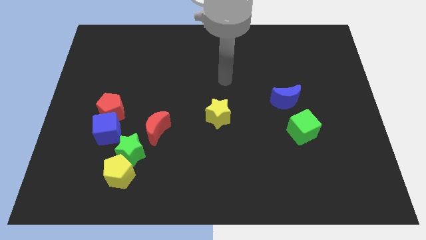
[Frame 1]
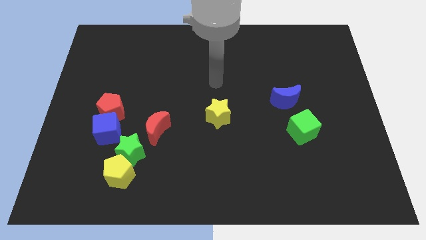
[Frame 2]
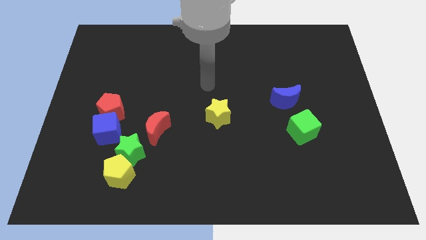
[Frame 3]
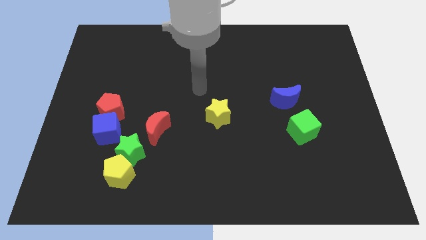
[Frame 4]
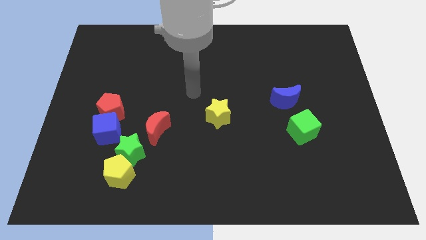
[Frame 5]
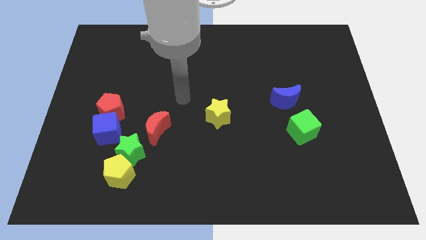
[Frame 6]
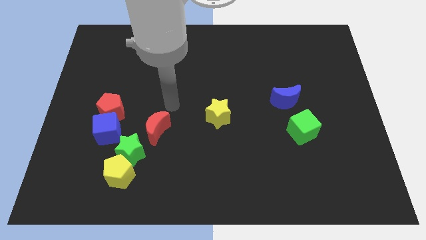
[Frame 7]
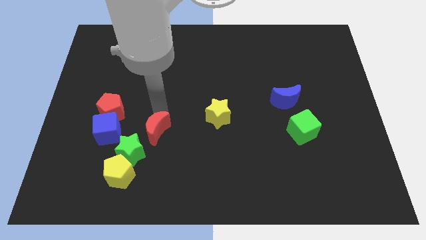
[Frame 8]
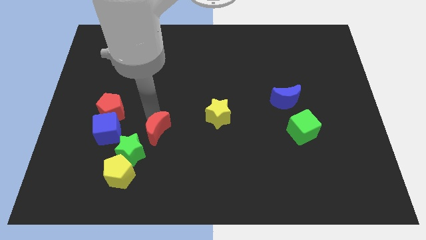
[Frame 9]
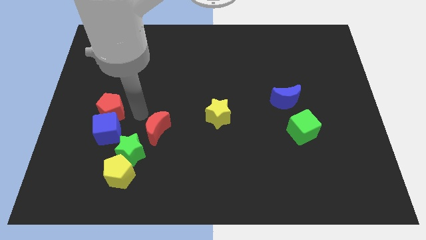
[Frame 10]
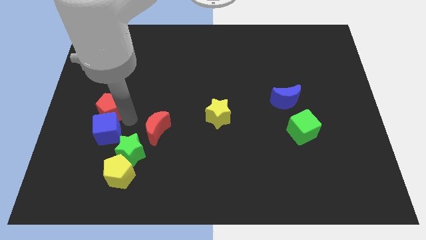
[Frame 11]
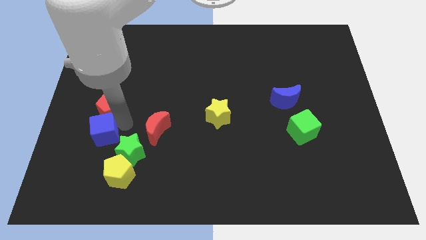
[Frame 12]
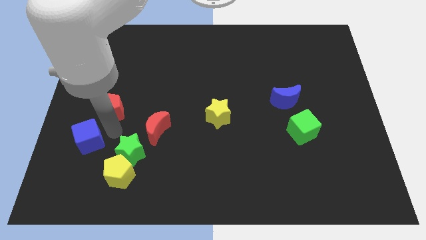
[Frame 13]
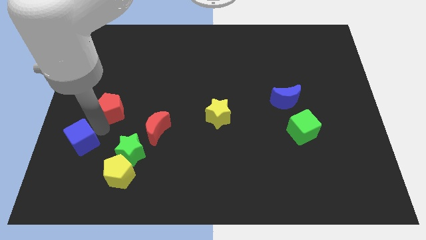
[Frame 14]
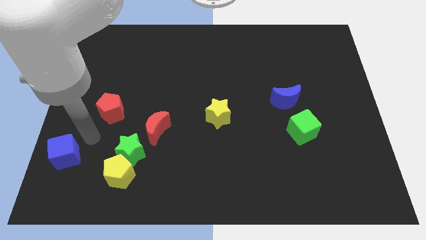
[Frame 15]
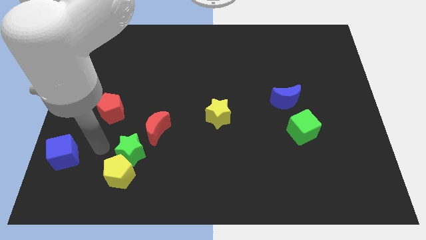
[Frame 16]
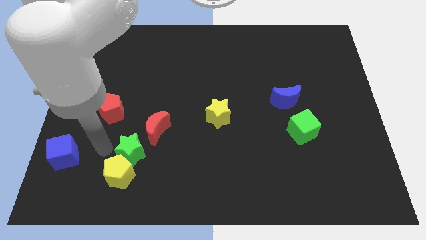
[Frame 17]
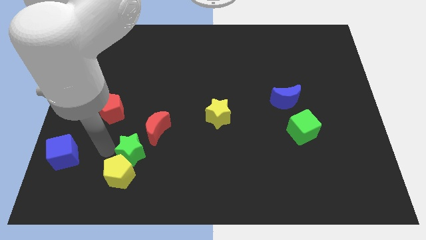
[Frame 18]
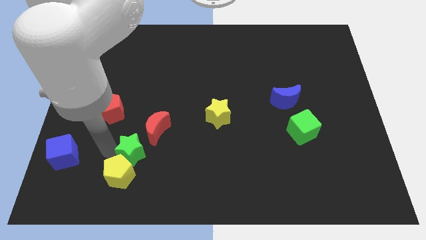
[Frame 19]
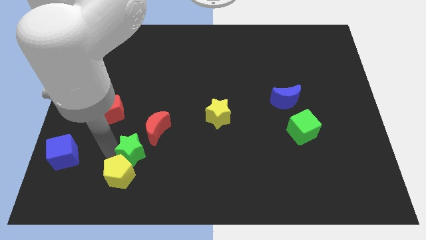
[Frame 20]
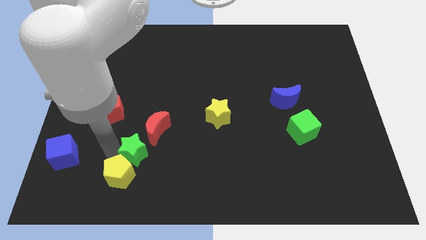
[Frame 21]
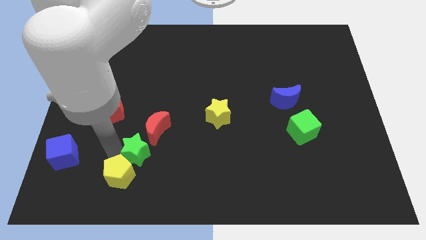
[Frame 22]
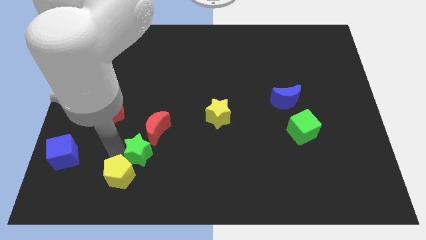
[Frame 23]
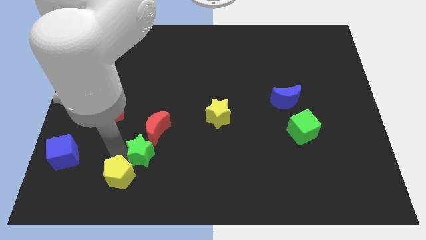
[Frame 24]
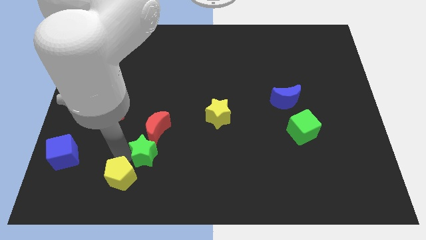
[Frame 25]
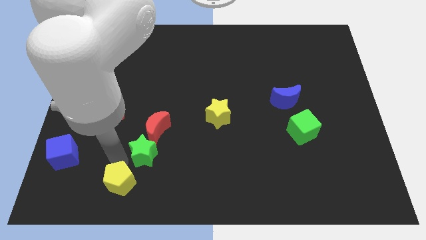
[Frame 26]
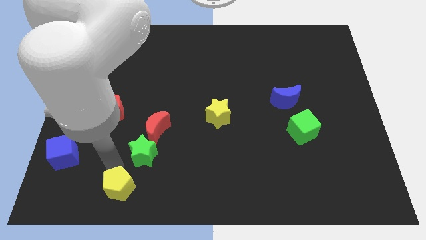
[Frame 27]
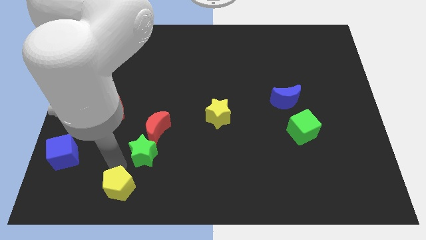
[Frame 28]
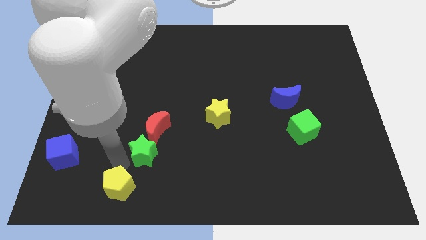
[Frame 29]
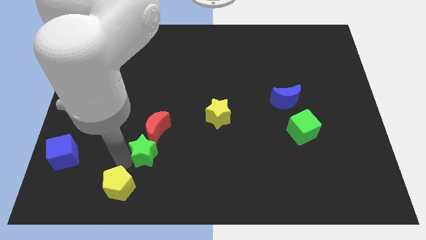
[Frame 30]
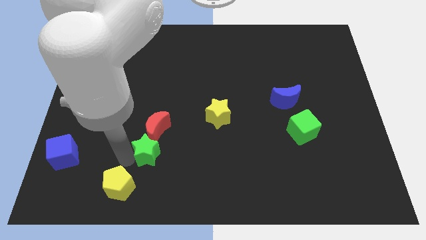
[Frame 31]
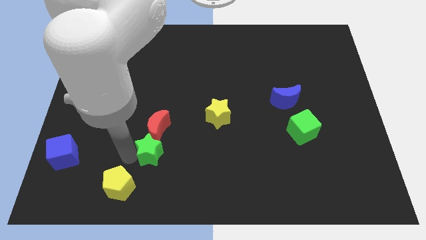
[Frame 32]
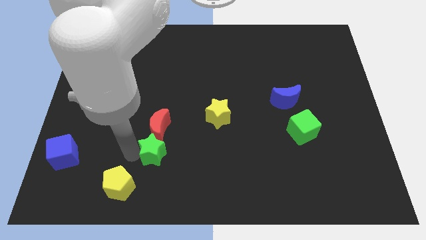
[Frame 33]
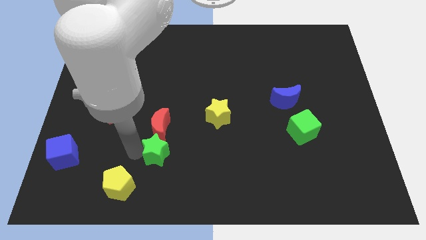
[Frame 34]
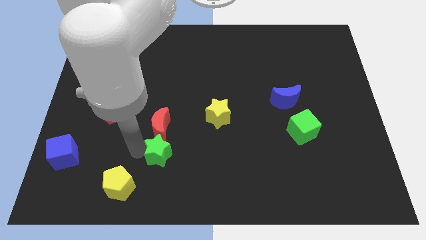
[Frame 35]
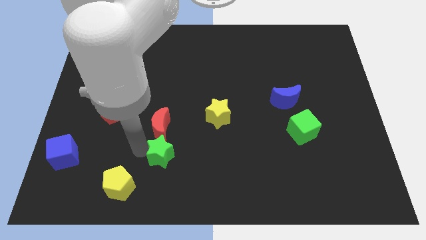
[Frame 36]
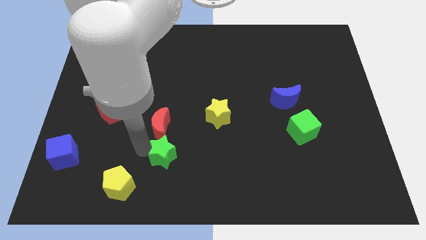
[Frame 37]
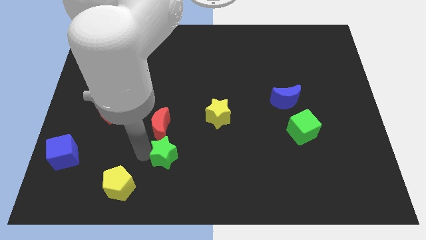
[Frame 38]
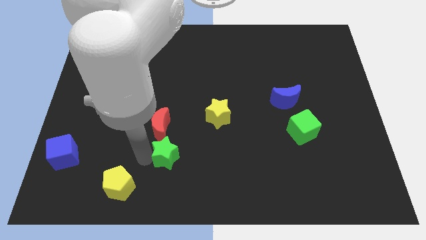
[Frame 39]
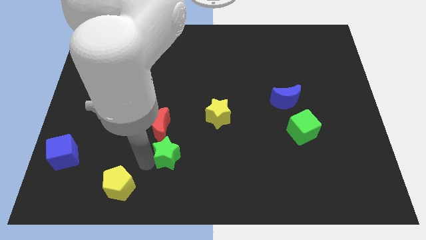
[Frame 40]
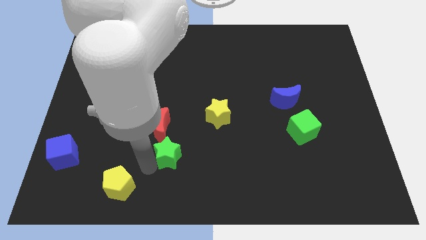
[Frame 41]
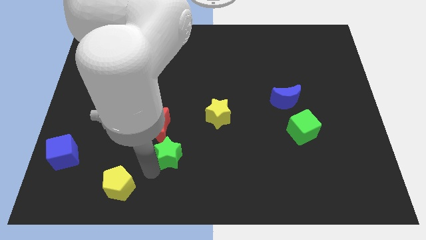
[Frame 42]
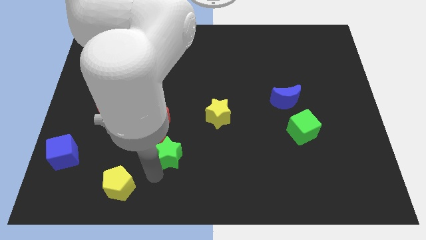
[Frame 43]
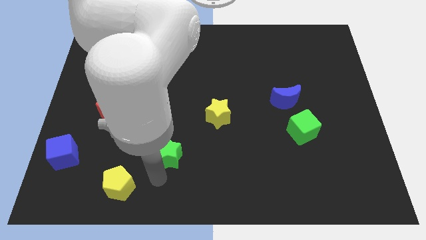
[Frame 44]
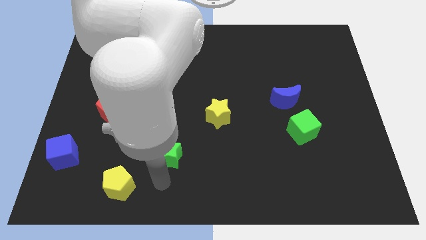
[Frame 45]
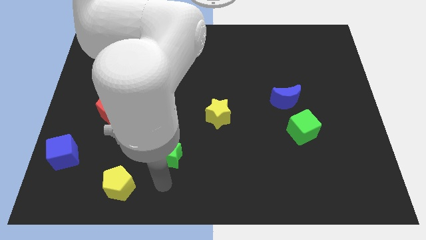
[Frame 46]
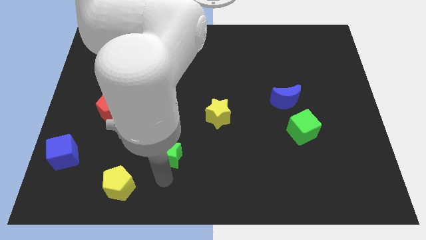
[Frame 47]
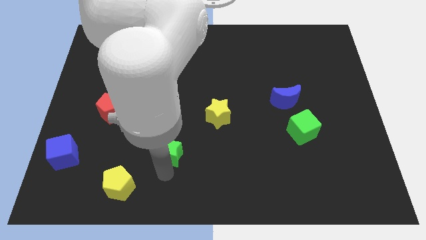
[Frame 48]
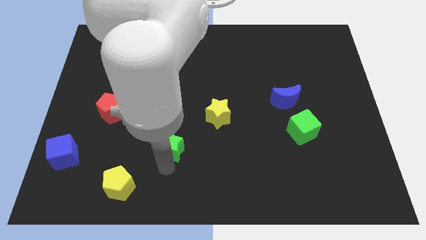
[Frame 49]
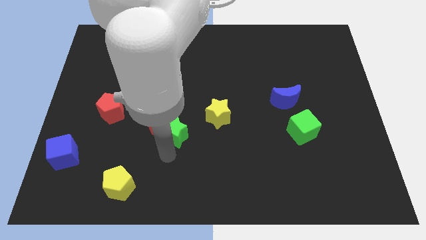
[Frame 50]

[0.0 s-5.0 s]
move the green star upwards and to the right diagonally somewhat

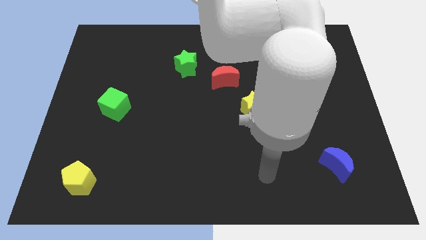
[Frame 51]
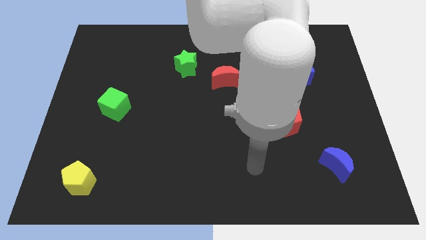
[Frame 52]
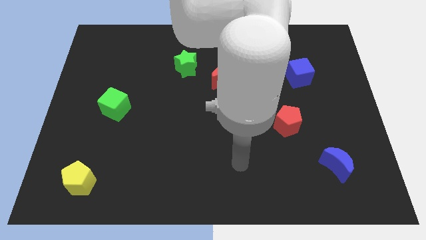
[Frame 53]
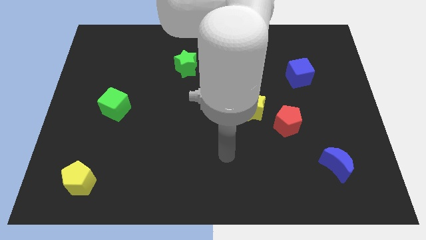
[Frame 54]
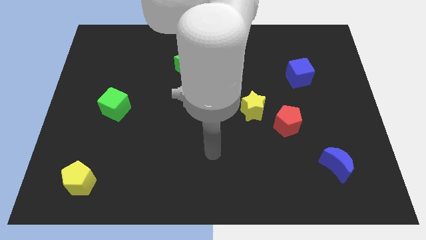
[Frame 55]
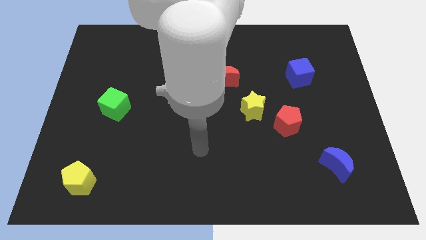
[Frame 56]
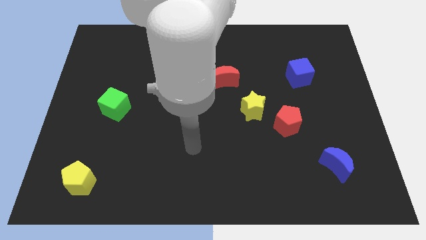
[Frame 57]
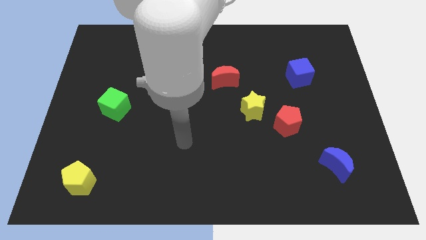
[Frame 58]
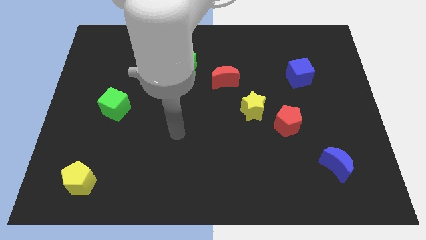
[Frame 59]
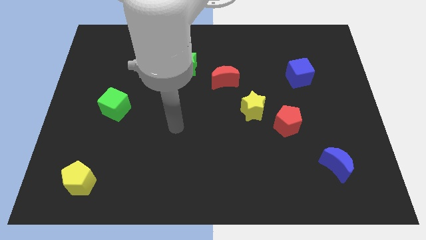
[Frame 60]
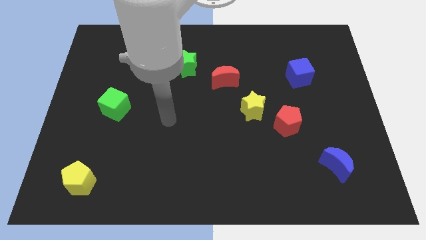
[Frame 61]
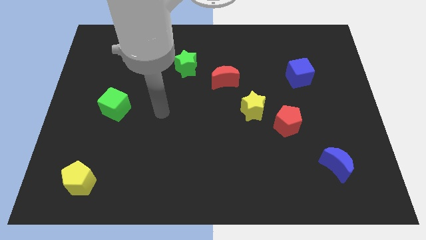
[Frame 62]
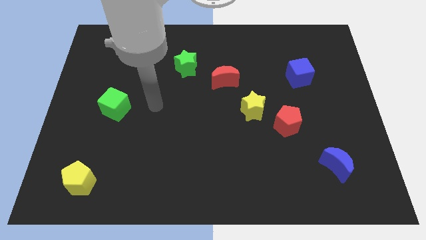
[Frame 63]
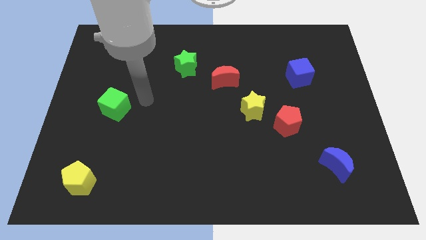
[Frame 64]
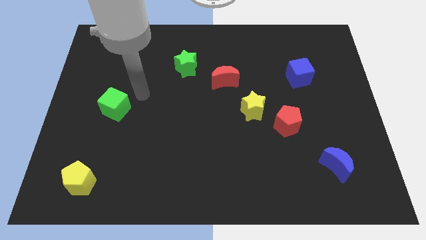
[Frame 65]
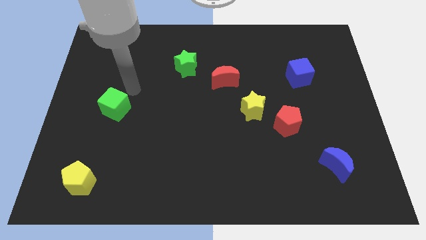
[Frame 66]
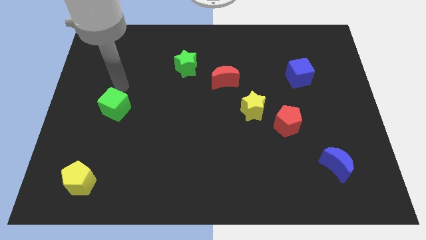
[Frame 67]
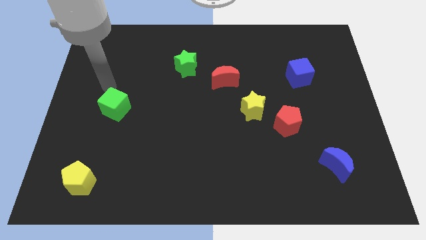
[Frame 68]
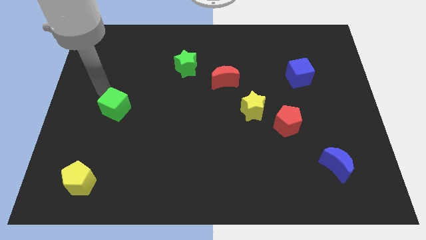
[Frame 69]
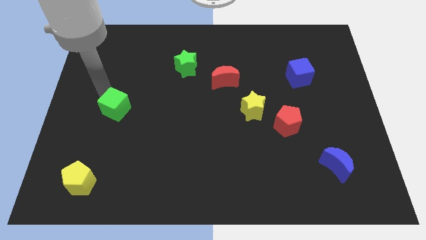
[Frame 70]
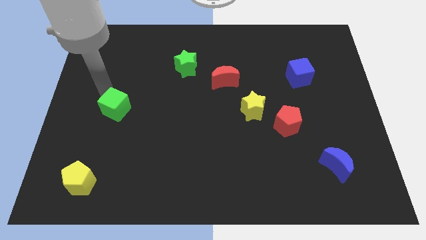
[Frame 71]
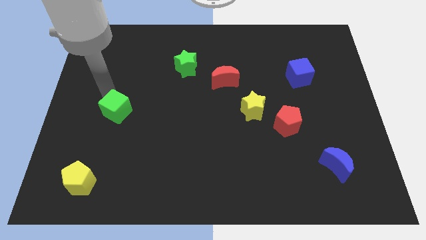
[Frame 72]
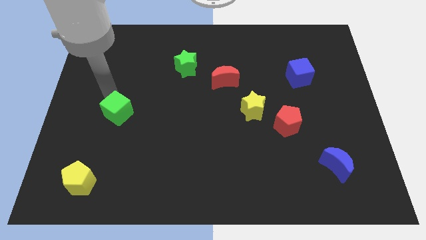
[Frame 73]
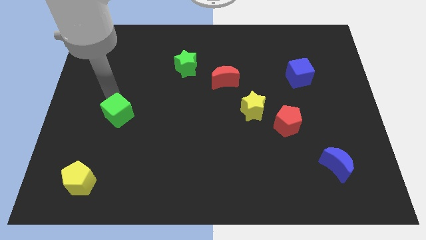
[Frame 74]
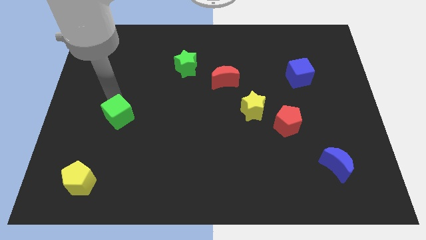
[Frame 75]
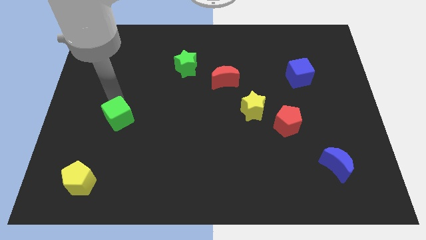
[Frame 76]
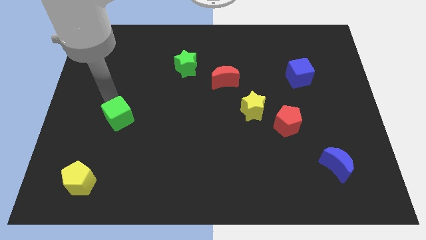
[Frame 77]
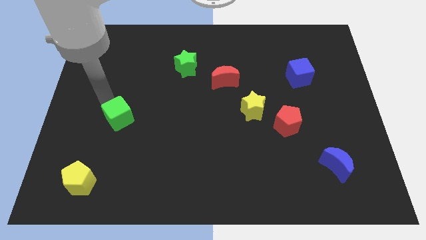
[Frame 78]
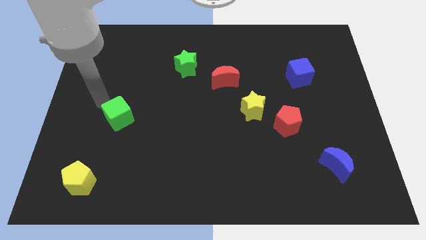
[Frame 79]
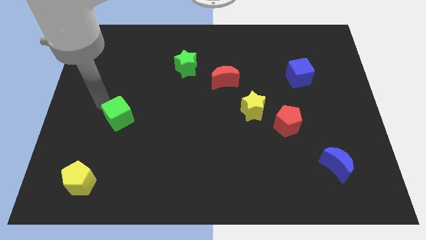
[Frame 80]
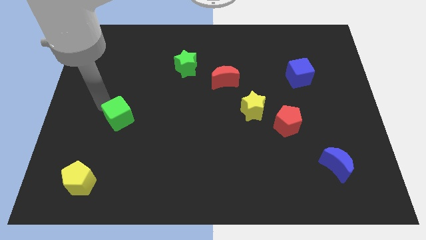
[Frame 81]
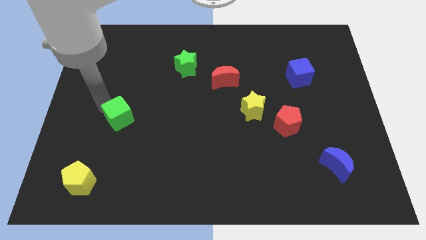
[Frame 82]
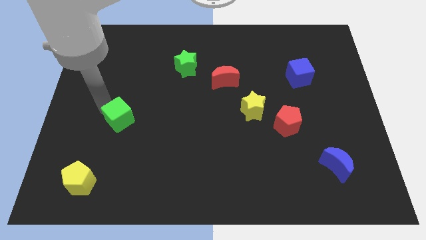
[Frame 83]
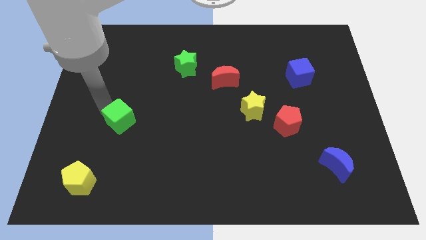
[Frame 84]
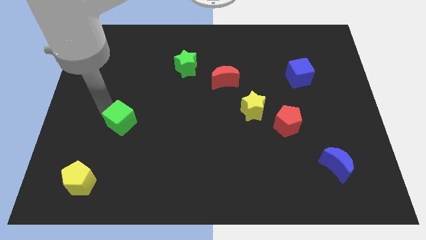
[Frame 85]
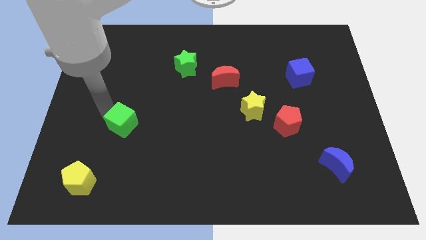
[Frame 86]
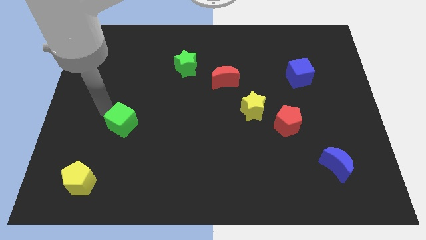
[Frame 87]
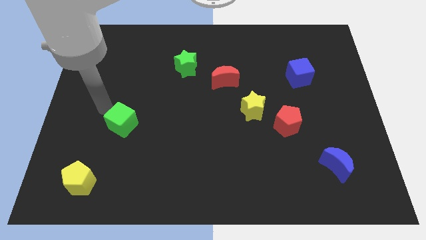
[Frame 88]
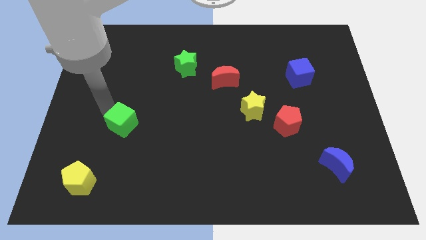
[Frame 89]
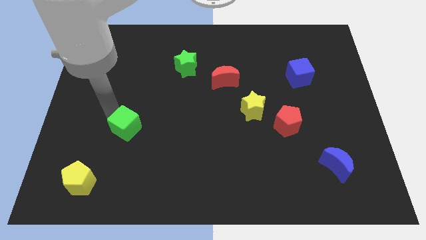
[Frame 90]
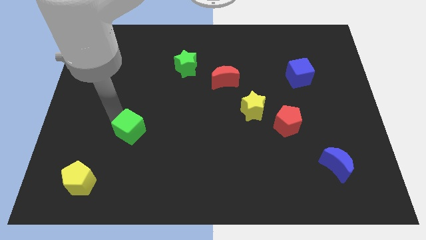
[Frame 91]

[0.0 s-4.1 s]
slightly push the green cube diagonally downwards and right
